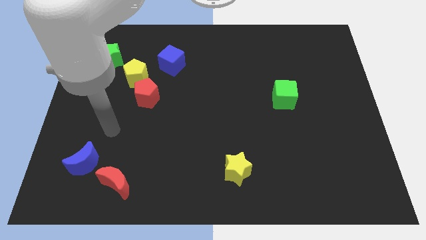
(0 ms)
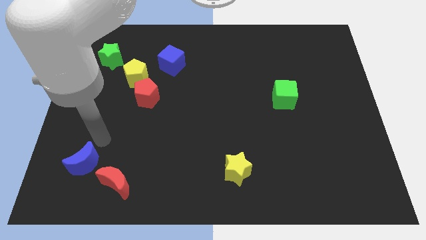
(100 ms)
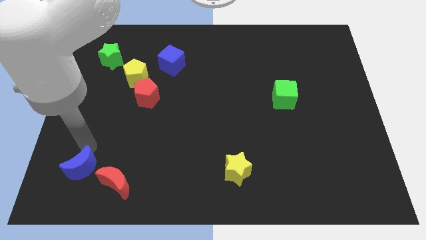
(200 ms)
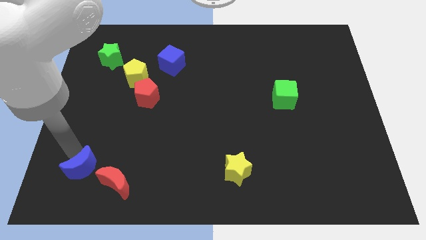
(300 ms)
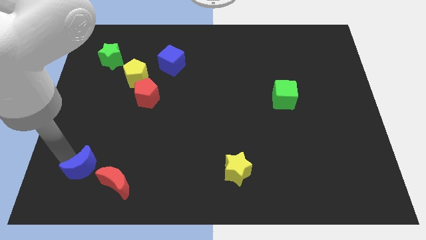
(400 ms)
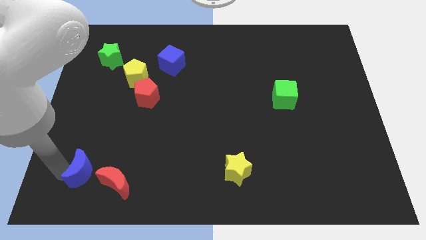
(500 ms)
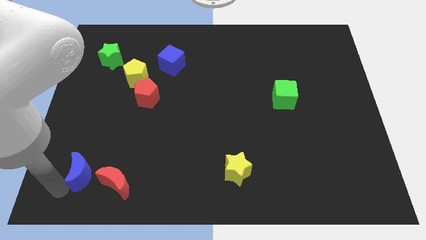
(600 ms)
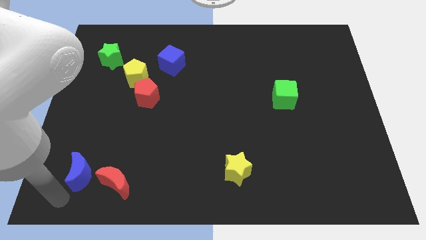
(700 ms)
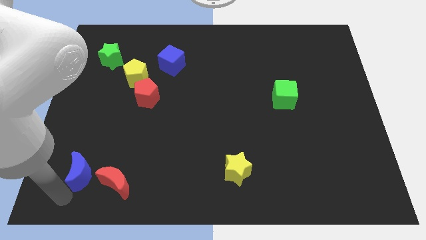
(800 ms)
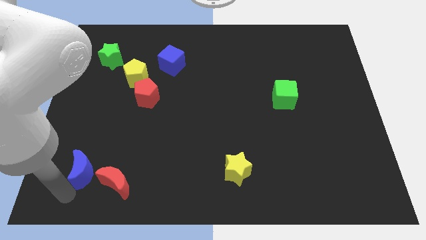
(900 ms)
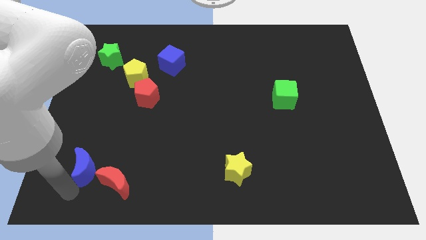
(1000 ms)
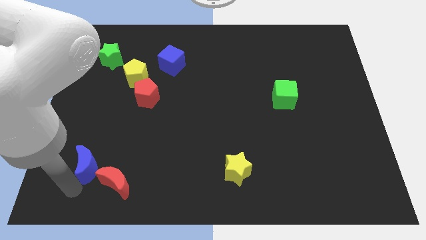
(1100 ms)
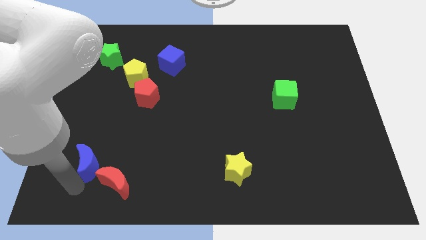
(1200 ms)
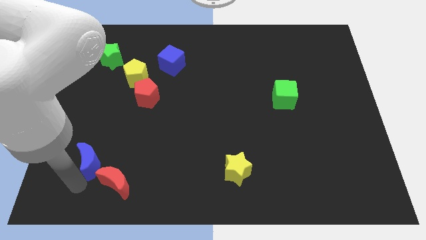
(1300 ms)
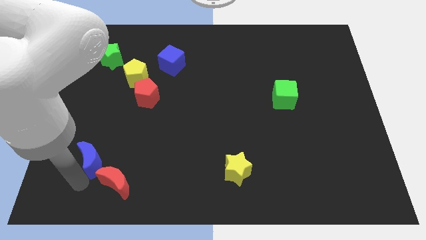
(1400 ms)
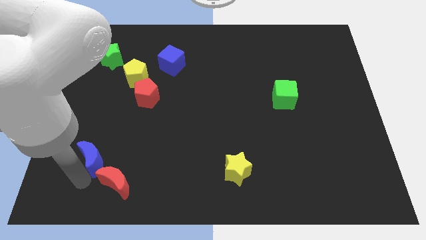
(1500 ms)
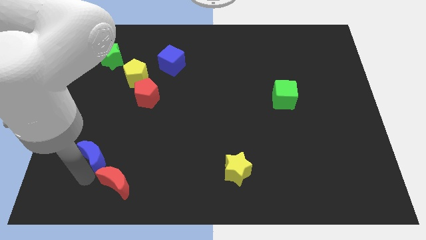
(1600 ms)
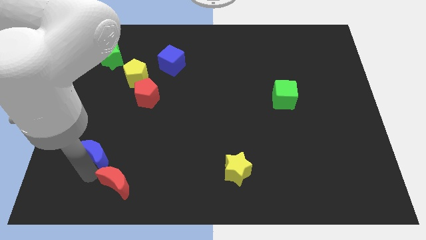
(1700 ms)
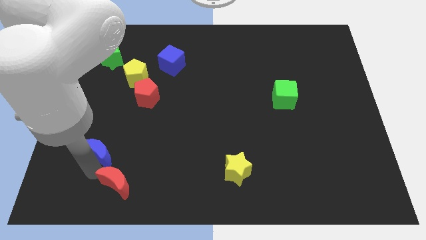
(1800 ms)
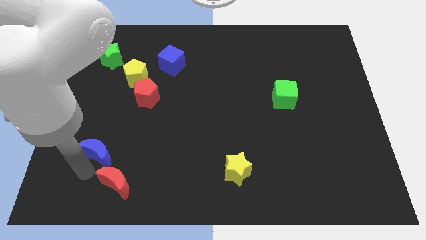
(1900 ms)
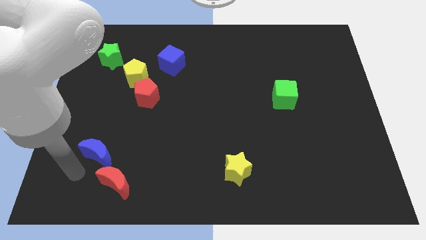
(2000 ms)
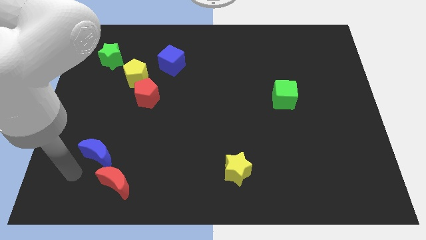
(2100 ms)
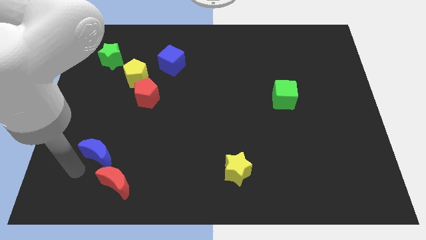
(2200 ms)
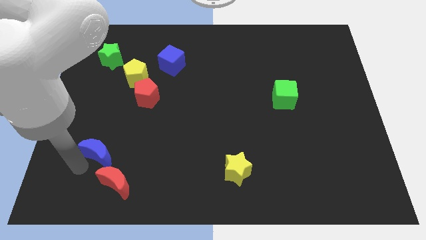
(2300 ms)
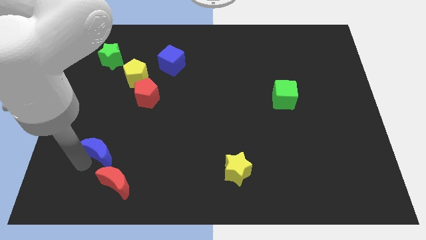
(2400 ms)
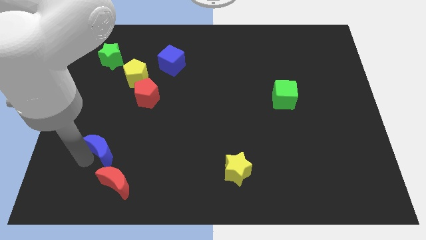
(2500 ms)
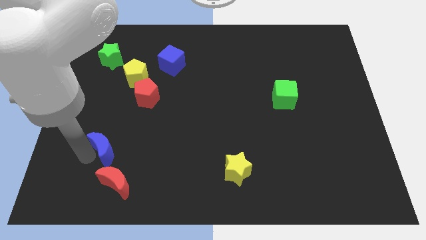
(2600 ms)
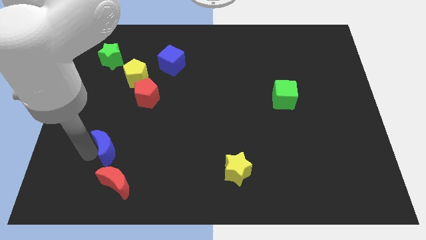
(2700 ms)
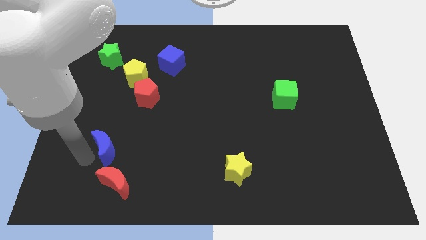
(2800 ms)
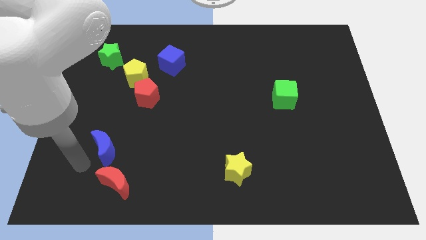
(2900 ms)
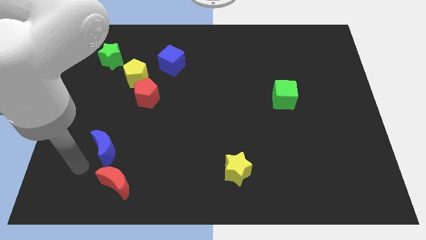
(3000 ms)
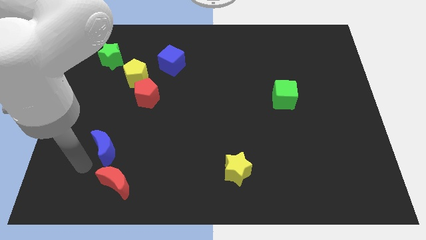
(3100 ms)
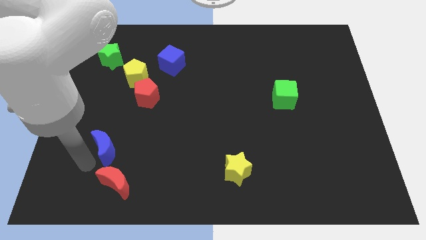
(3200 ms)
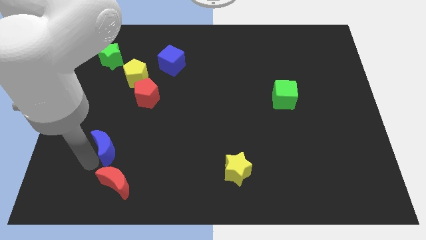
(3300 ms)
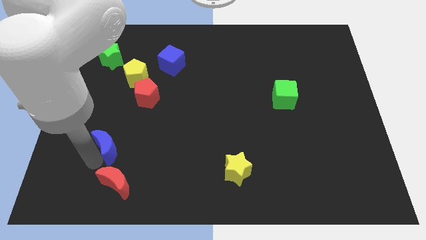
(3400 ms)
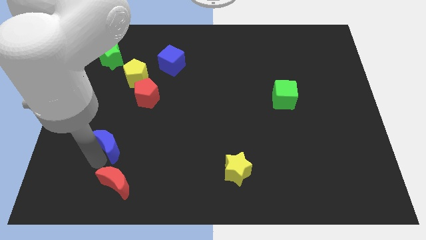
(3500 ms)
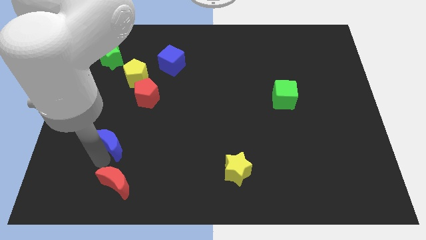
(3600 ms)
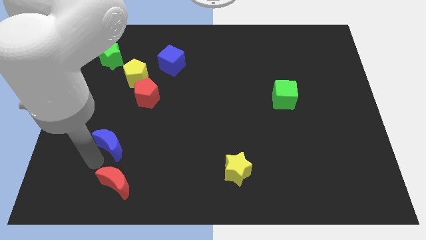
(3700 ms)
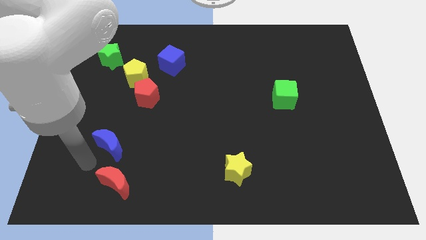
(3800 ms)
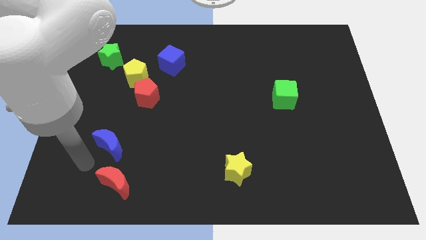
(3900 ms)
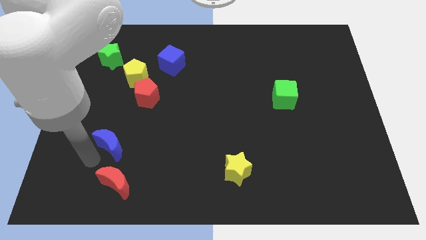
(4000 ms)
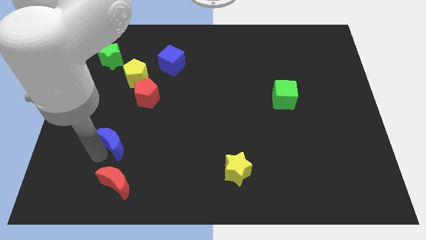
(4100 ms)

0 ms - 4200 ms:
slide the blue moon a little bit upwards and right

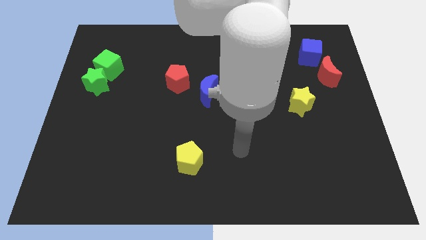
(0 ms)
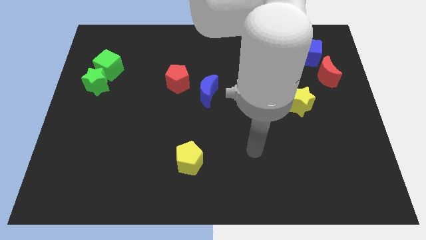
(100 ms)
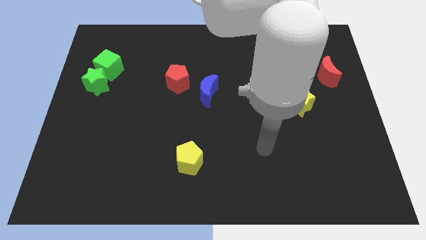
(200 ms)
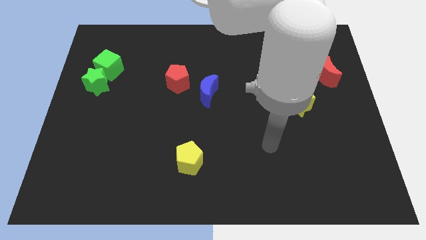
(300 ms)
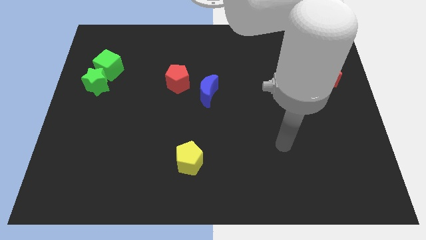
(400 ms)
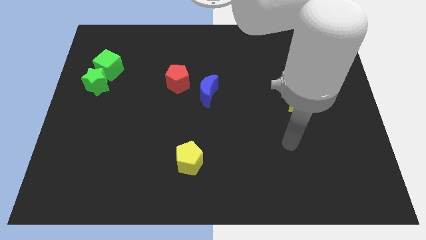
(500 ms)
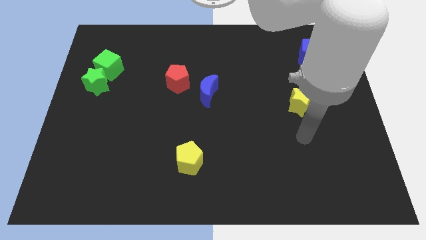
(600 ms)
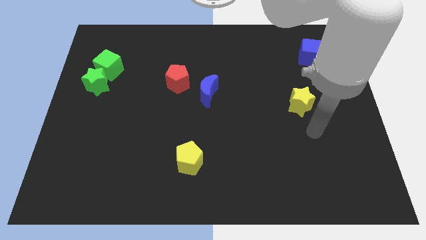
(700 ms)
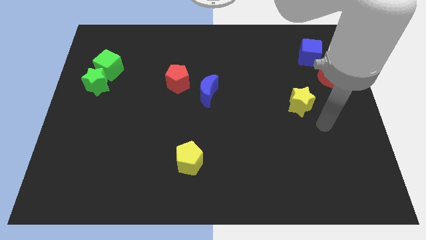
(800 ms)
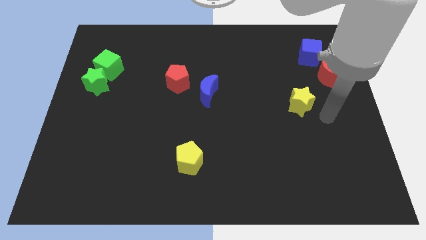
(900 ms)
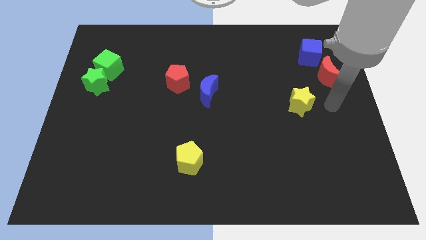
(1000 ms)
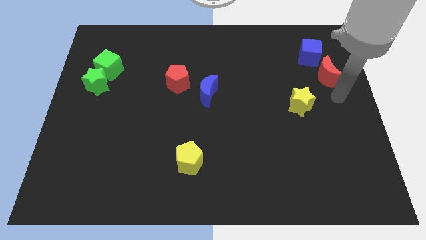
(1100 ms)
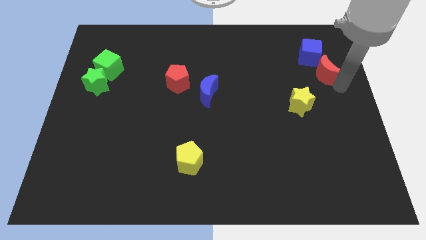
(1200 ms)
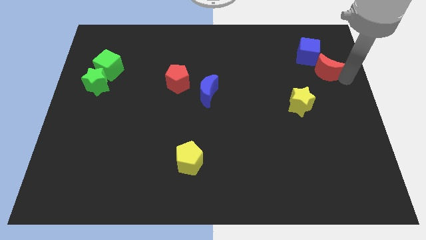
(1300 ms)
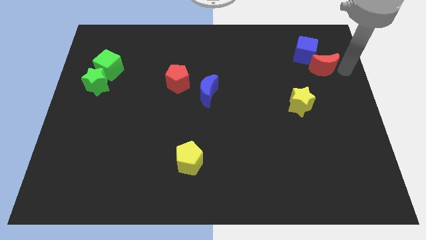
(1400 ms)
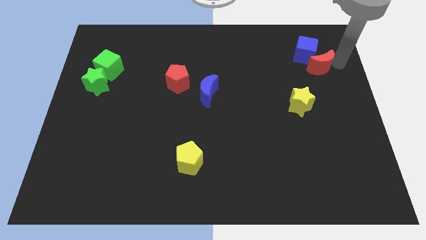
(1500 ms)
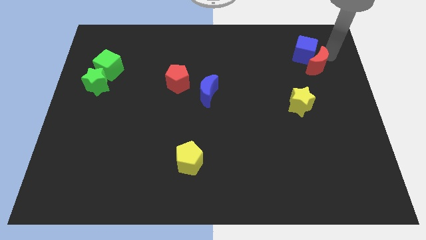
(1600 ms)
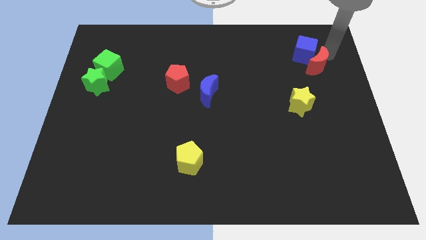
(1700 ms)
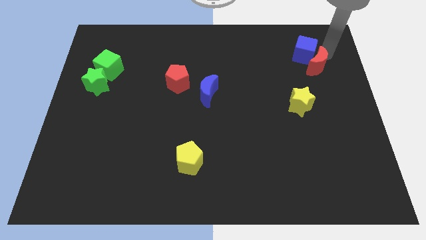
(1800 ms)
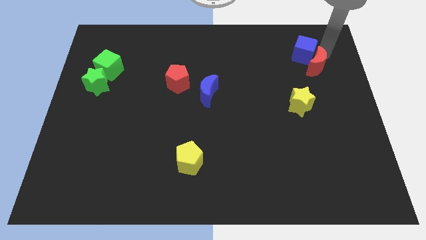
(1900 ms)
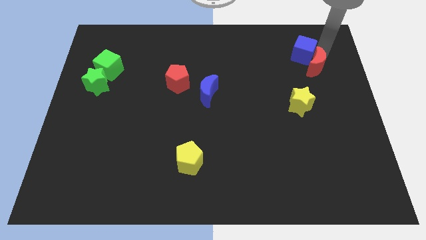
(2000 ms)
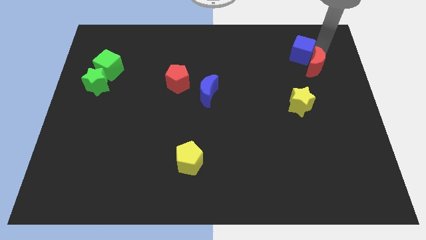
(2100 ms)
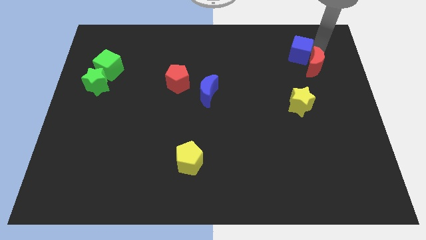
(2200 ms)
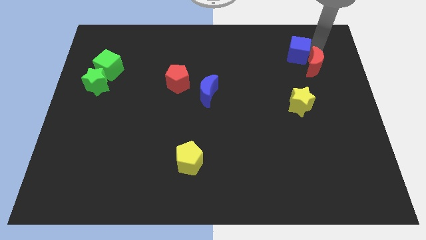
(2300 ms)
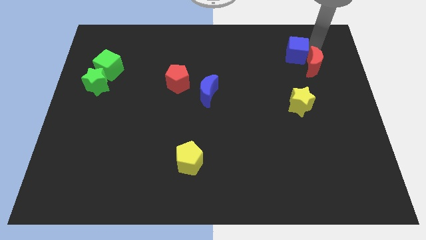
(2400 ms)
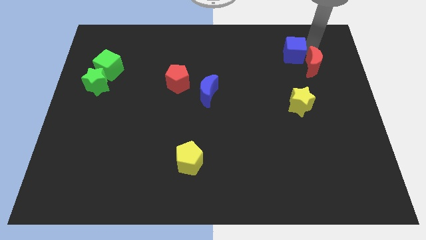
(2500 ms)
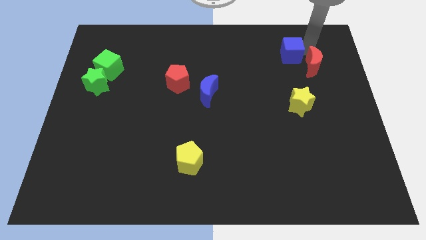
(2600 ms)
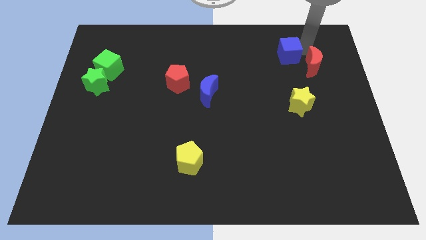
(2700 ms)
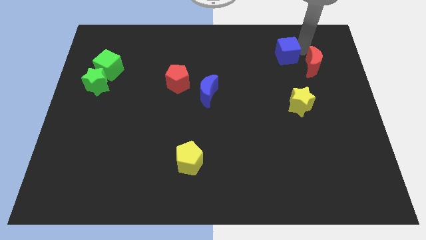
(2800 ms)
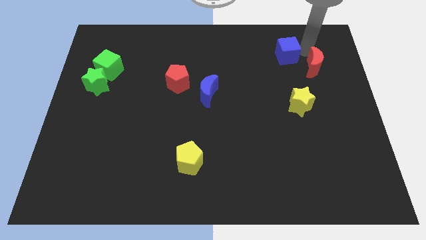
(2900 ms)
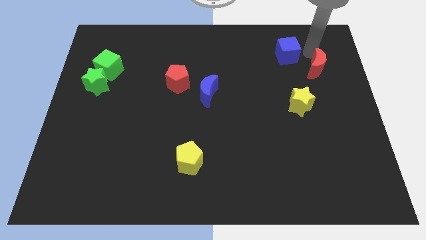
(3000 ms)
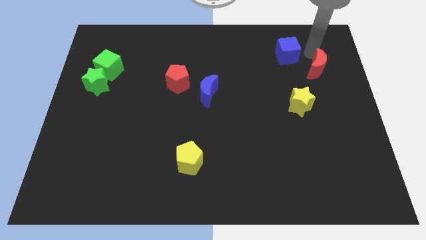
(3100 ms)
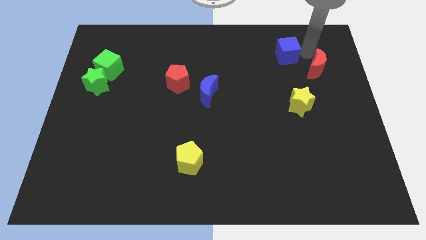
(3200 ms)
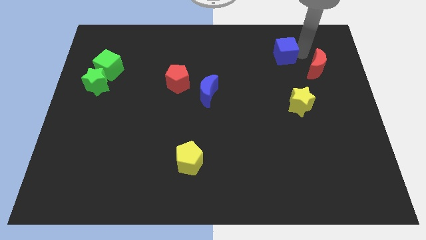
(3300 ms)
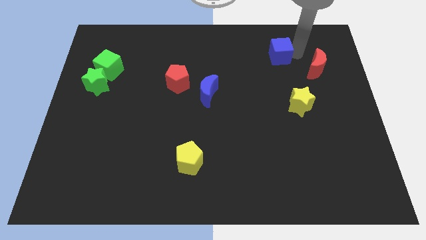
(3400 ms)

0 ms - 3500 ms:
slightly slide the blue cube to the left
